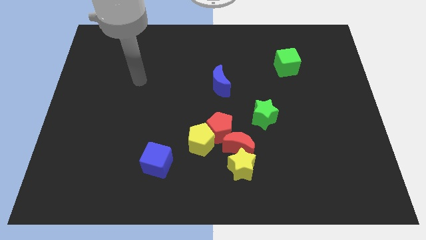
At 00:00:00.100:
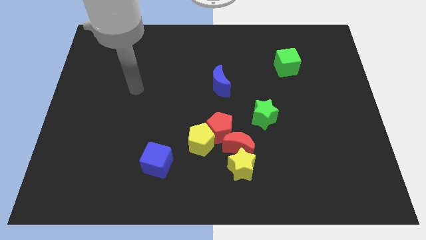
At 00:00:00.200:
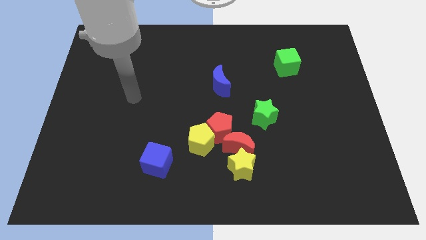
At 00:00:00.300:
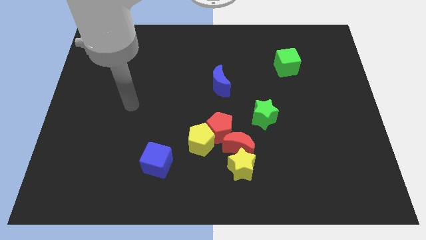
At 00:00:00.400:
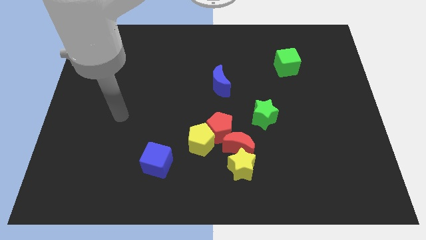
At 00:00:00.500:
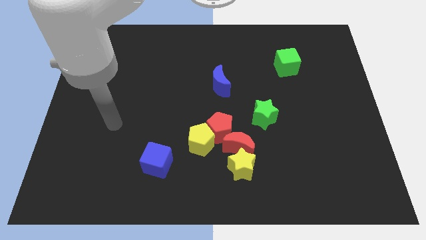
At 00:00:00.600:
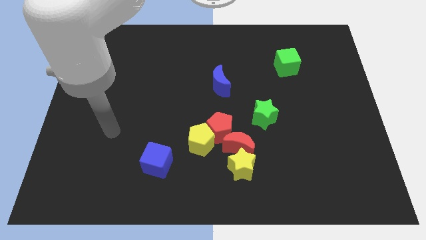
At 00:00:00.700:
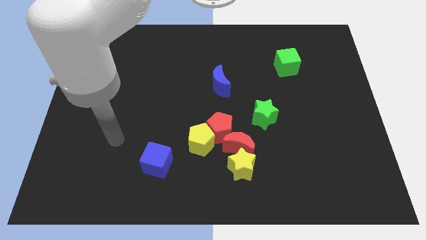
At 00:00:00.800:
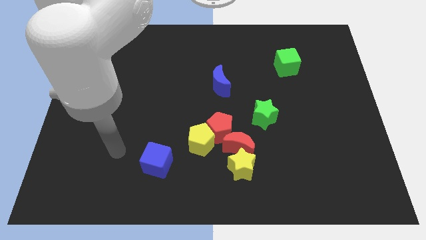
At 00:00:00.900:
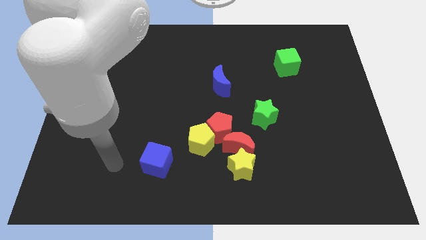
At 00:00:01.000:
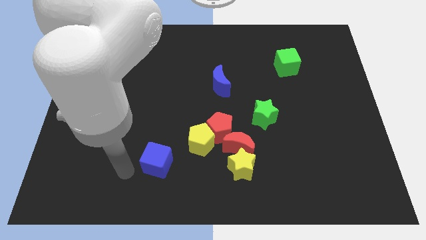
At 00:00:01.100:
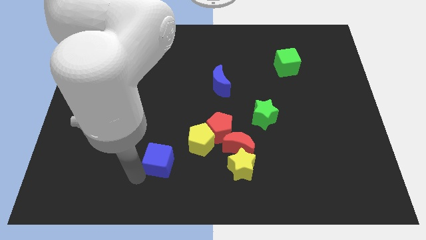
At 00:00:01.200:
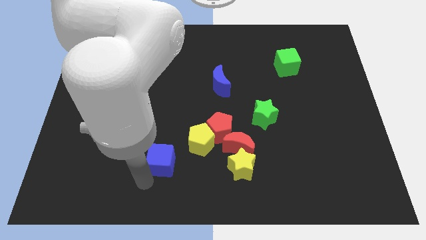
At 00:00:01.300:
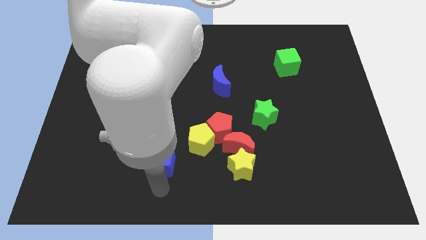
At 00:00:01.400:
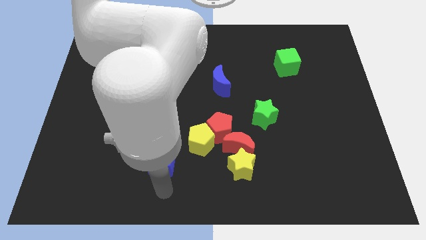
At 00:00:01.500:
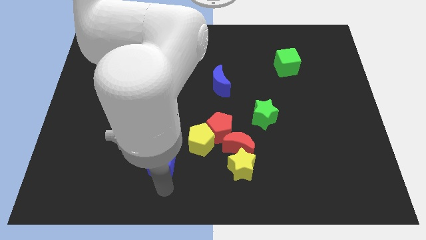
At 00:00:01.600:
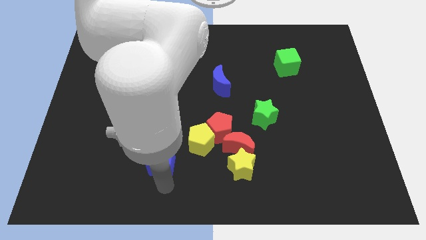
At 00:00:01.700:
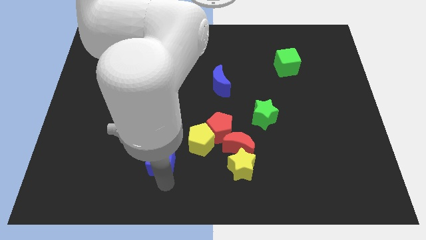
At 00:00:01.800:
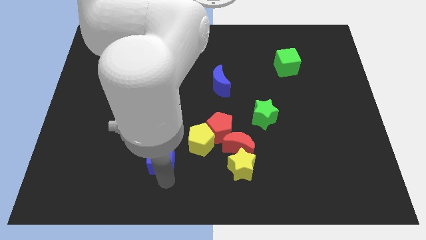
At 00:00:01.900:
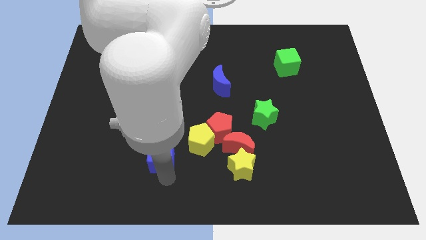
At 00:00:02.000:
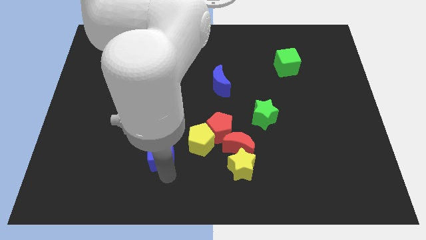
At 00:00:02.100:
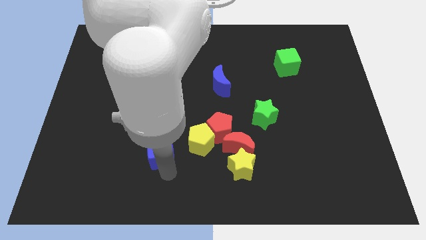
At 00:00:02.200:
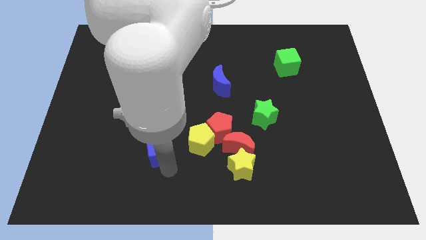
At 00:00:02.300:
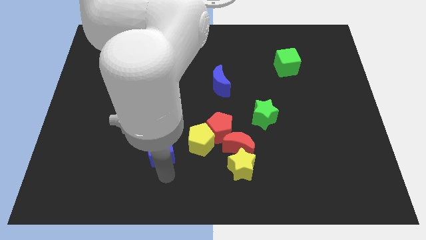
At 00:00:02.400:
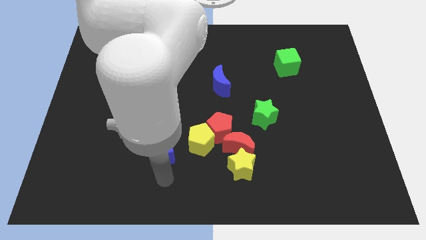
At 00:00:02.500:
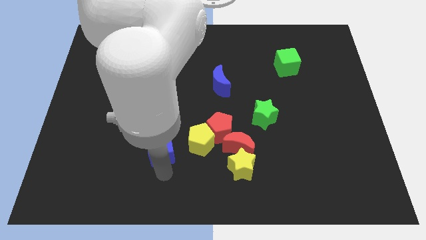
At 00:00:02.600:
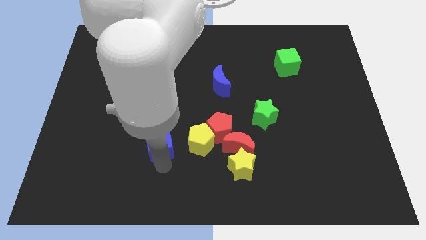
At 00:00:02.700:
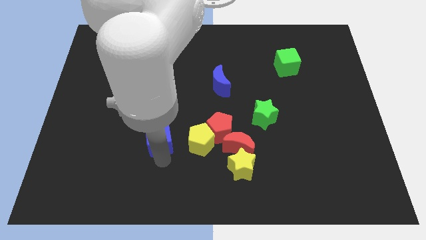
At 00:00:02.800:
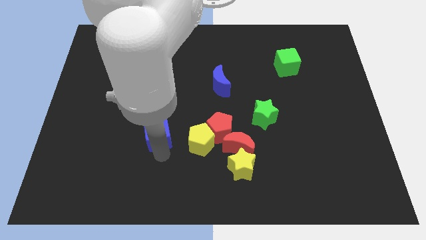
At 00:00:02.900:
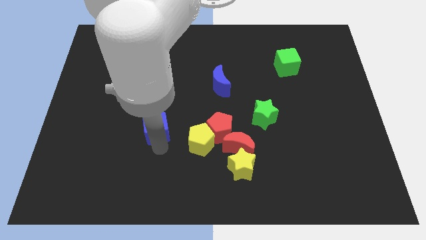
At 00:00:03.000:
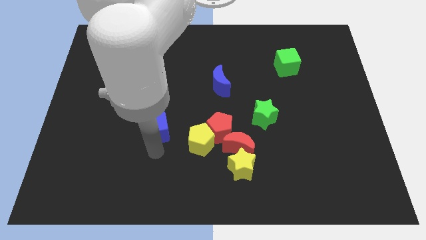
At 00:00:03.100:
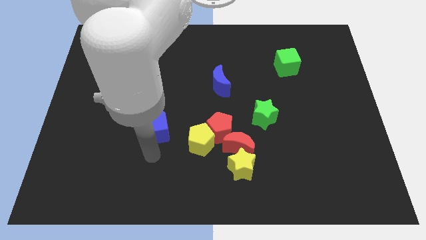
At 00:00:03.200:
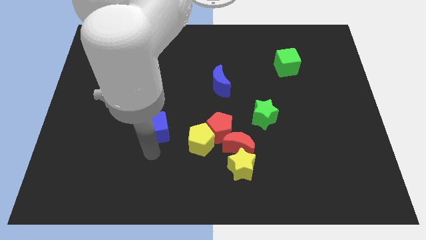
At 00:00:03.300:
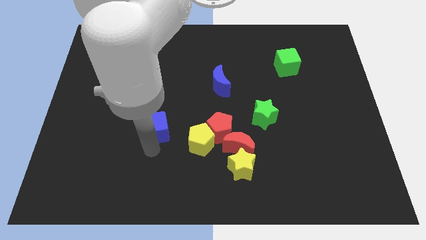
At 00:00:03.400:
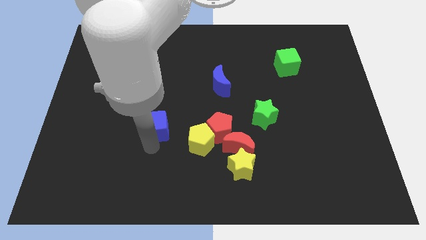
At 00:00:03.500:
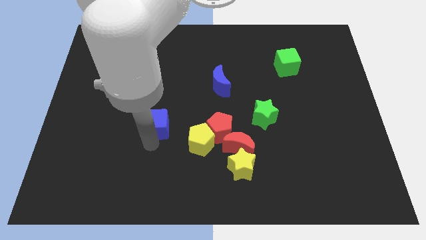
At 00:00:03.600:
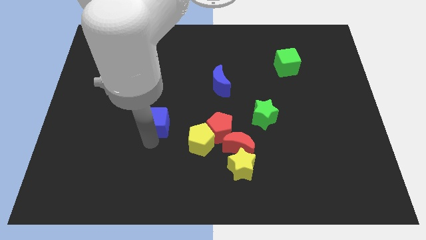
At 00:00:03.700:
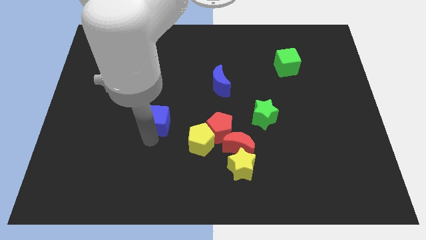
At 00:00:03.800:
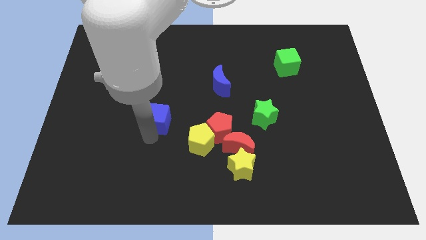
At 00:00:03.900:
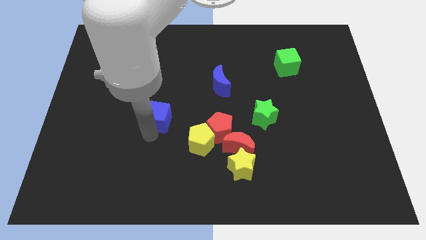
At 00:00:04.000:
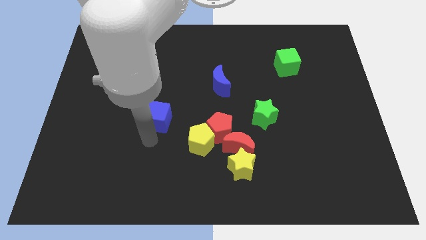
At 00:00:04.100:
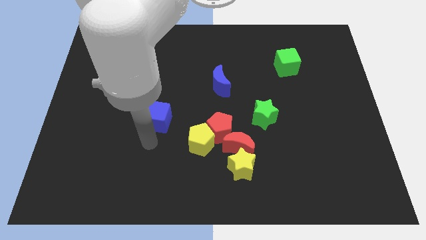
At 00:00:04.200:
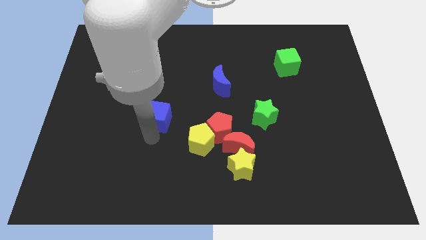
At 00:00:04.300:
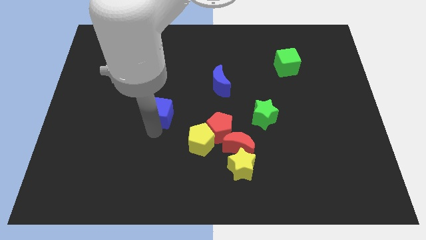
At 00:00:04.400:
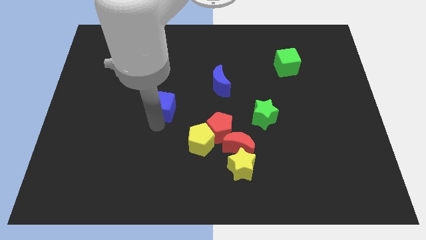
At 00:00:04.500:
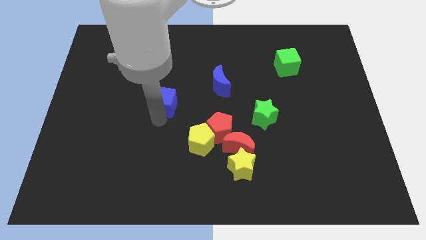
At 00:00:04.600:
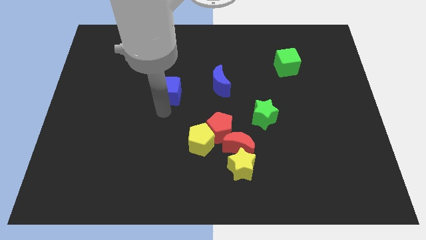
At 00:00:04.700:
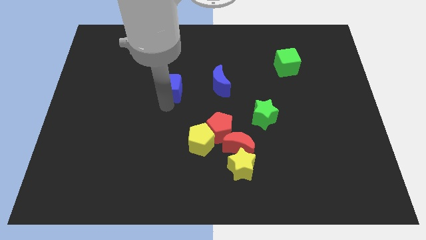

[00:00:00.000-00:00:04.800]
push the blue cube up

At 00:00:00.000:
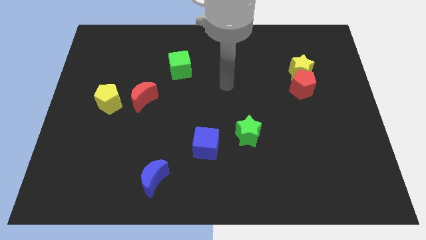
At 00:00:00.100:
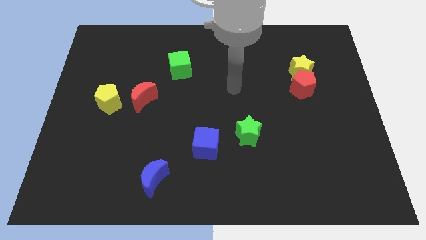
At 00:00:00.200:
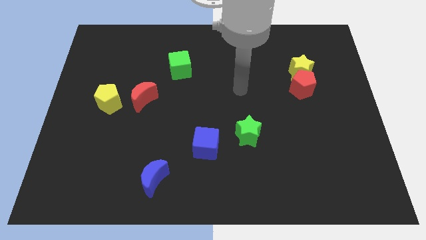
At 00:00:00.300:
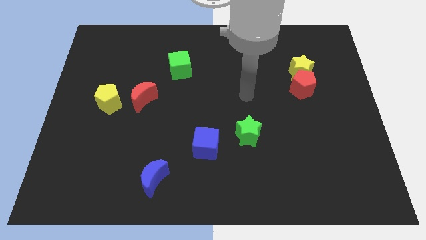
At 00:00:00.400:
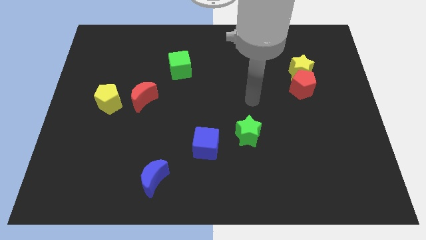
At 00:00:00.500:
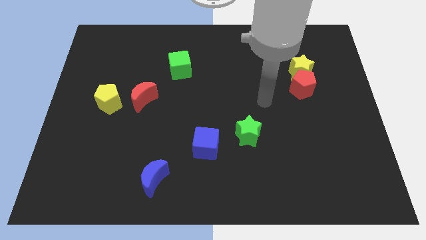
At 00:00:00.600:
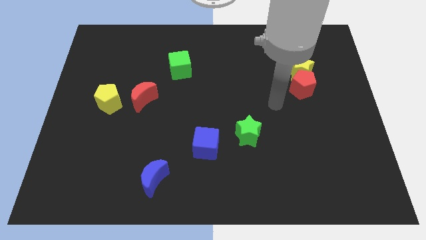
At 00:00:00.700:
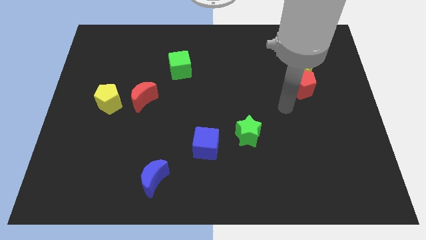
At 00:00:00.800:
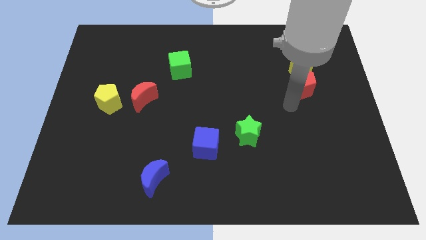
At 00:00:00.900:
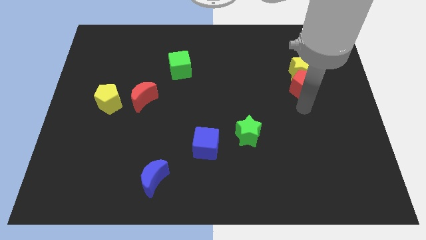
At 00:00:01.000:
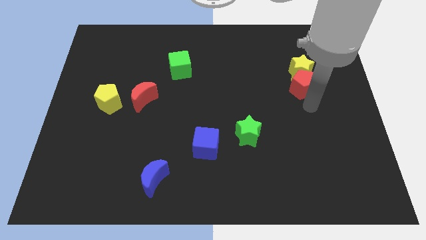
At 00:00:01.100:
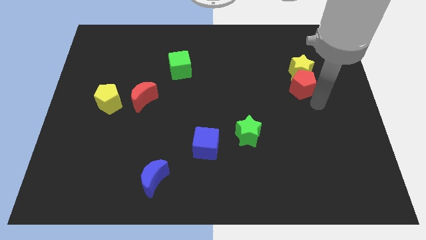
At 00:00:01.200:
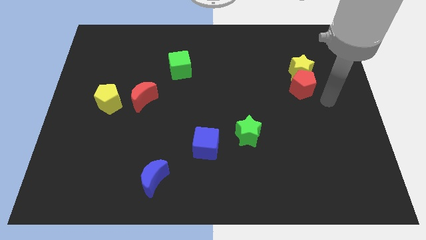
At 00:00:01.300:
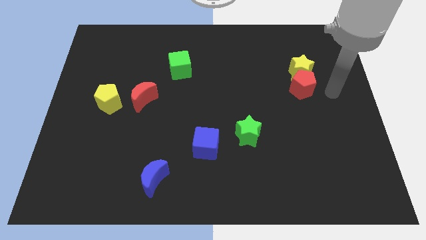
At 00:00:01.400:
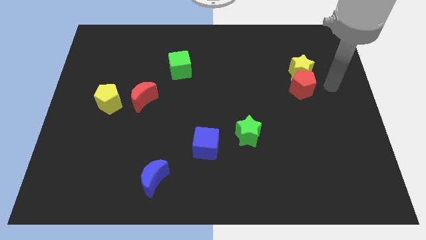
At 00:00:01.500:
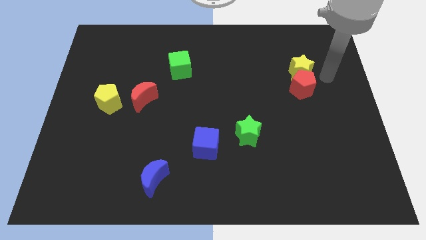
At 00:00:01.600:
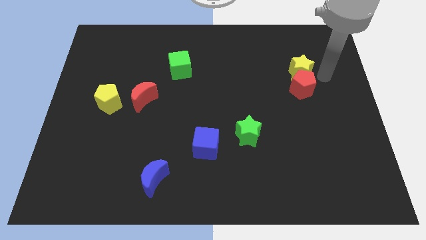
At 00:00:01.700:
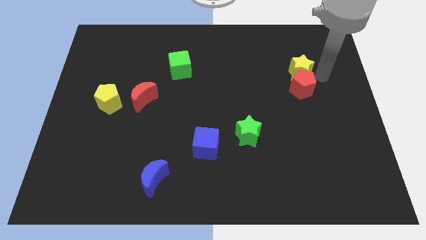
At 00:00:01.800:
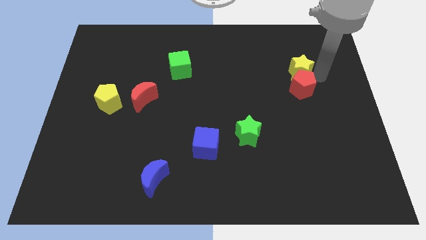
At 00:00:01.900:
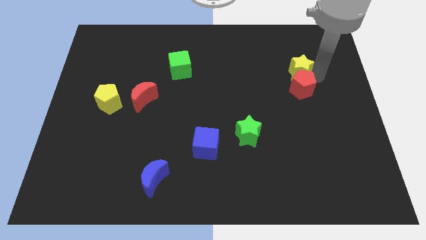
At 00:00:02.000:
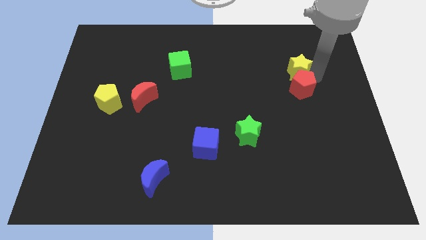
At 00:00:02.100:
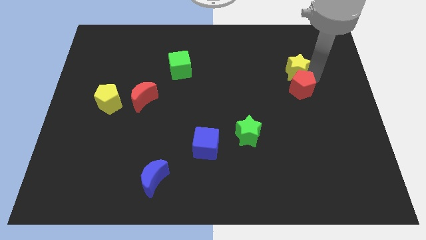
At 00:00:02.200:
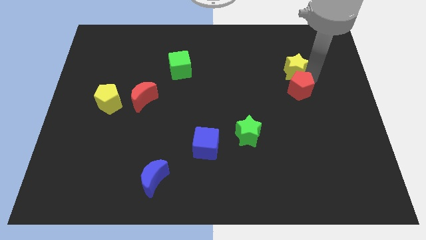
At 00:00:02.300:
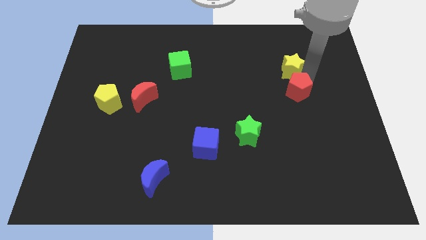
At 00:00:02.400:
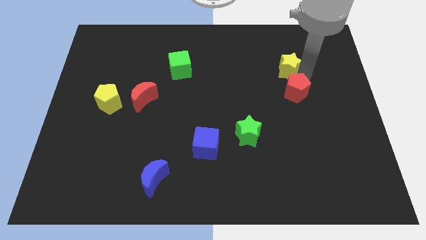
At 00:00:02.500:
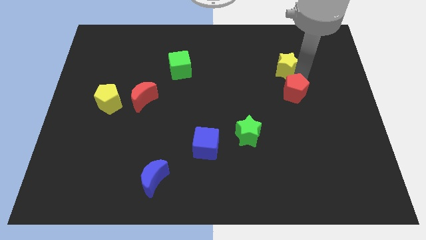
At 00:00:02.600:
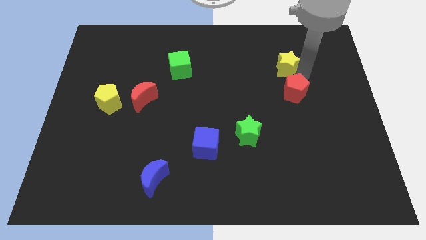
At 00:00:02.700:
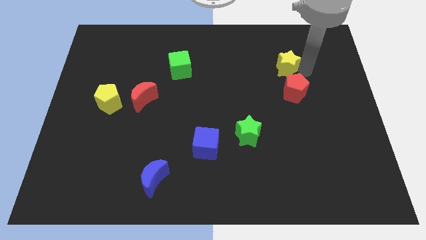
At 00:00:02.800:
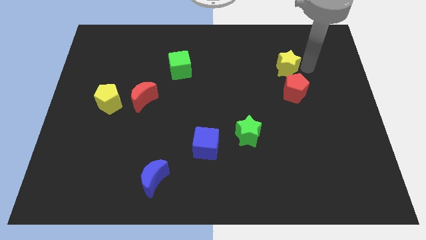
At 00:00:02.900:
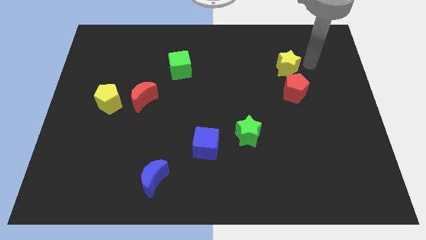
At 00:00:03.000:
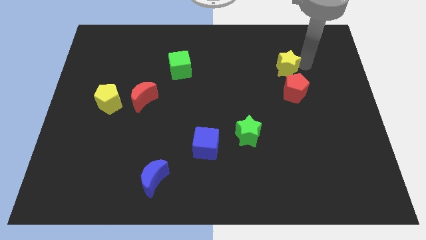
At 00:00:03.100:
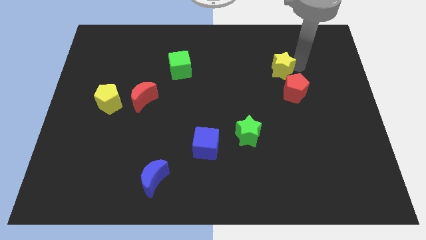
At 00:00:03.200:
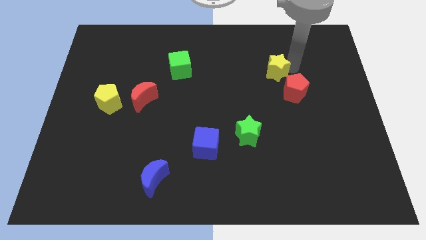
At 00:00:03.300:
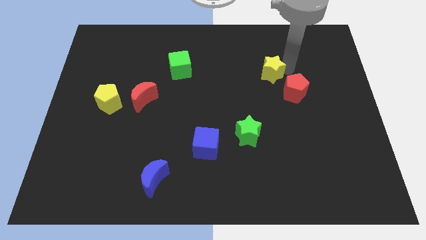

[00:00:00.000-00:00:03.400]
push the yellow star a little left

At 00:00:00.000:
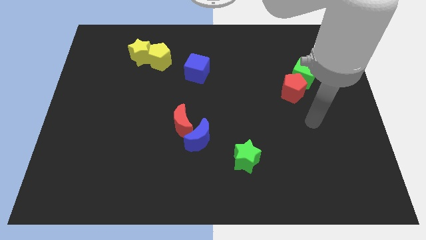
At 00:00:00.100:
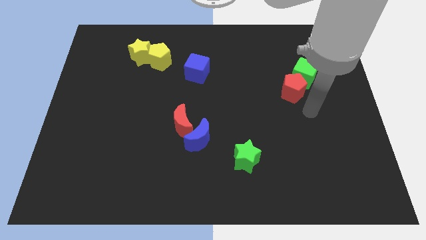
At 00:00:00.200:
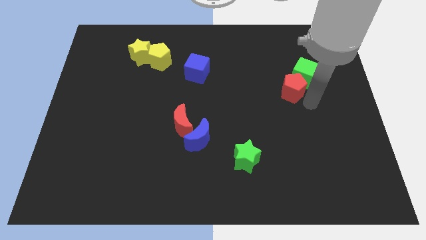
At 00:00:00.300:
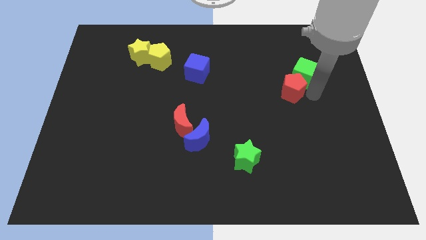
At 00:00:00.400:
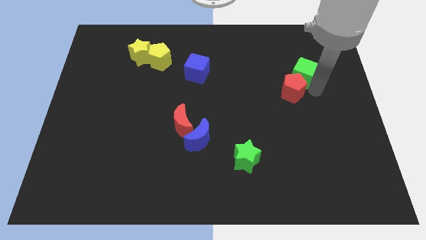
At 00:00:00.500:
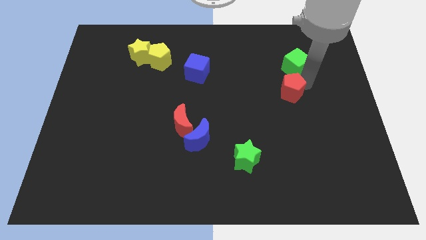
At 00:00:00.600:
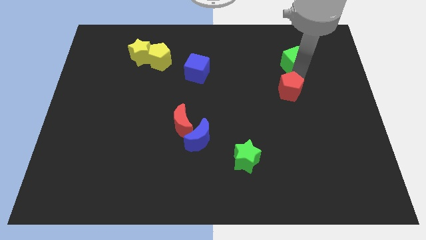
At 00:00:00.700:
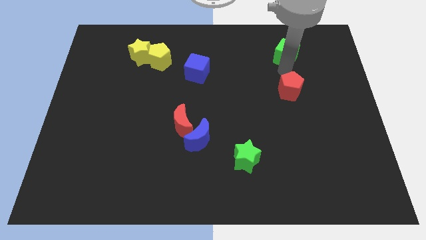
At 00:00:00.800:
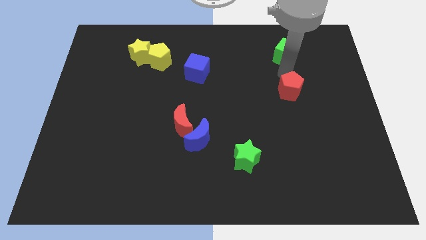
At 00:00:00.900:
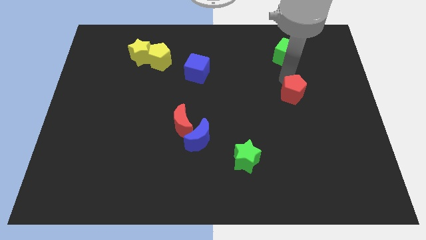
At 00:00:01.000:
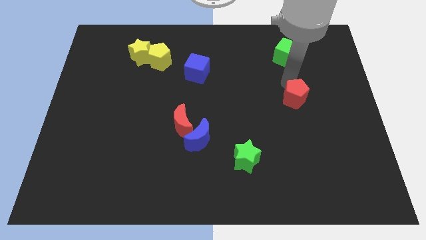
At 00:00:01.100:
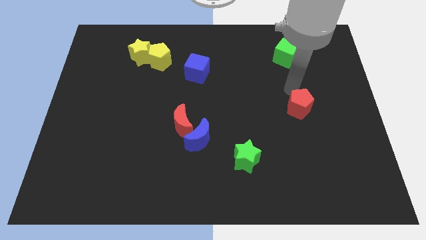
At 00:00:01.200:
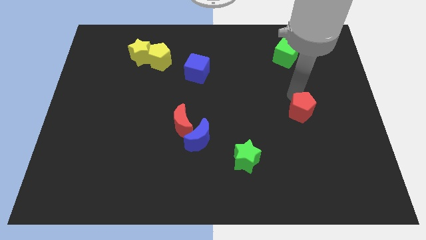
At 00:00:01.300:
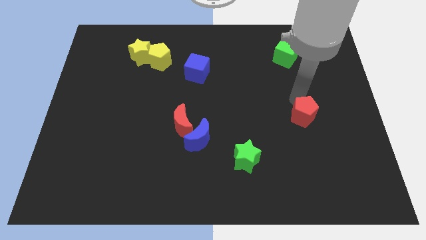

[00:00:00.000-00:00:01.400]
push the red pentagon downwards somewhat
